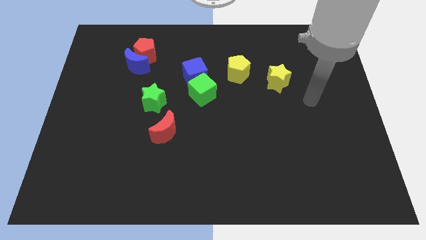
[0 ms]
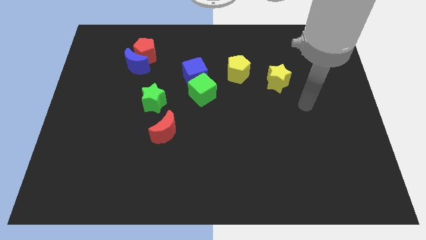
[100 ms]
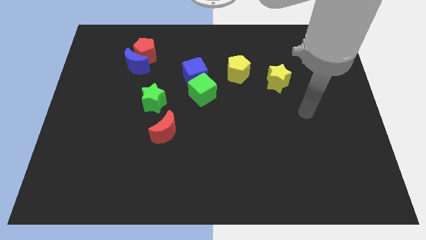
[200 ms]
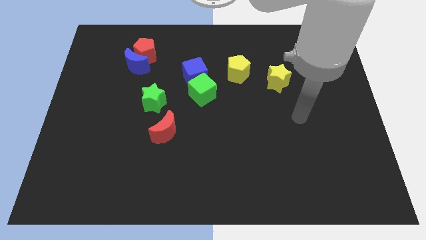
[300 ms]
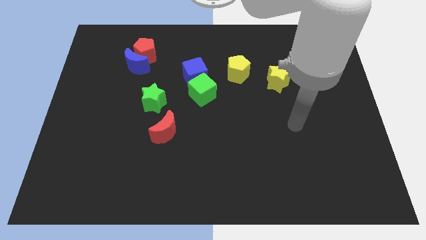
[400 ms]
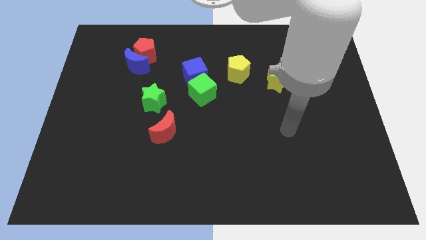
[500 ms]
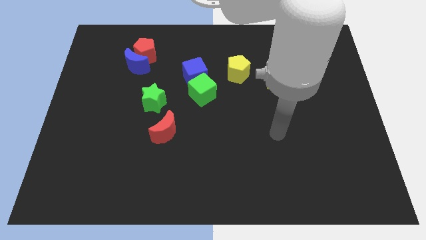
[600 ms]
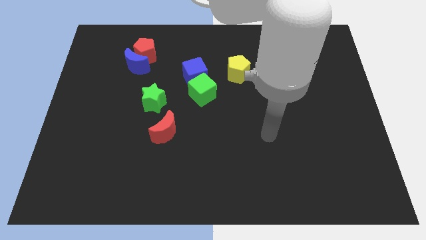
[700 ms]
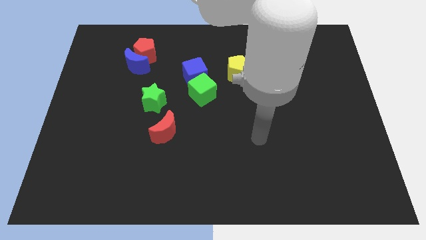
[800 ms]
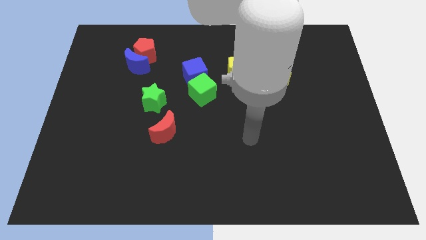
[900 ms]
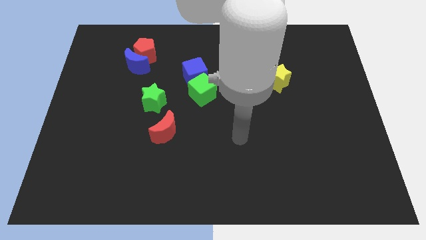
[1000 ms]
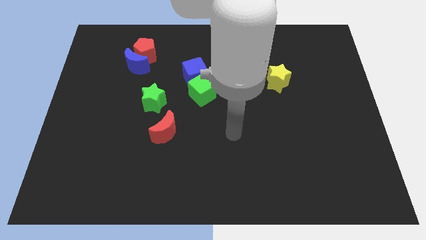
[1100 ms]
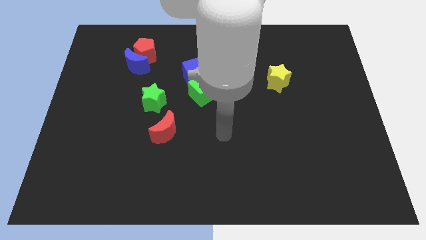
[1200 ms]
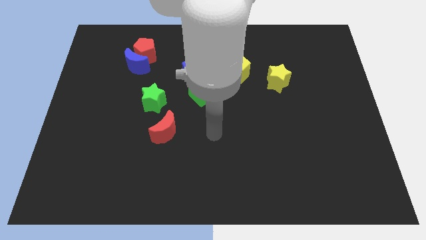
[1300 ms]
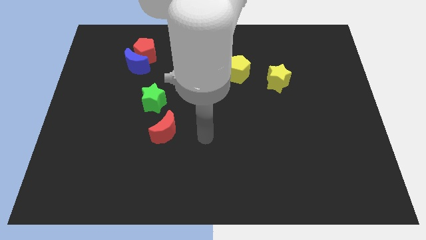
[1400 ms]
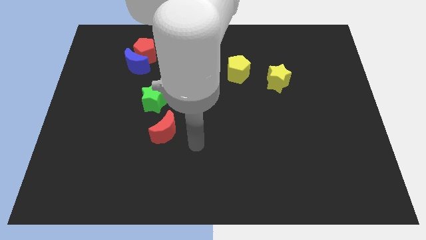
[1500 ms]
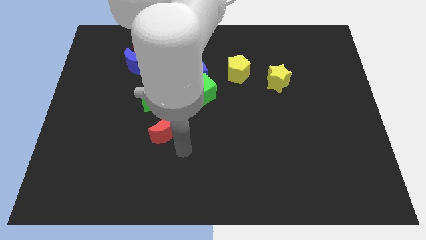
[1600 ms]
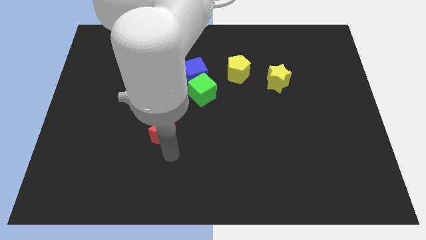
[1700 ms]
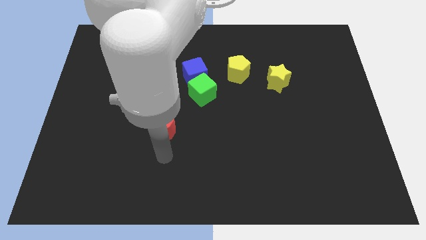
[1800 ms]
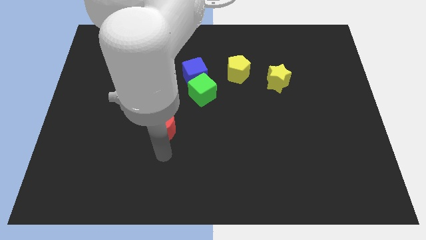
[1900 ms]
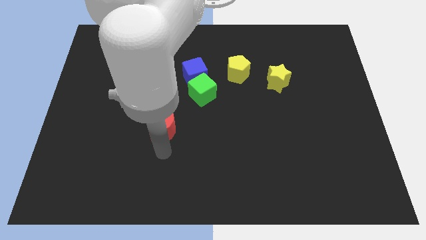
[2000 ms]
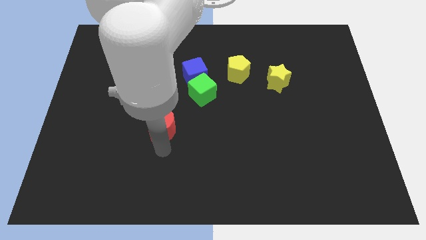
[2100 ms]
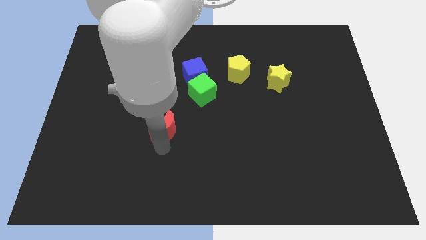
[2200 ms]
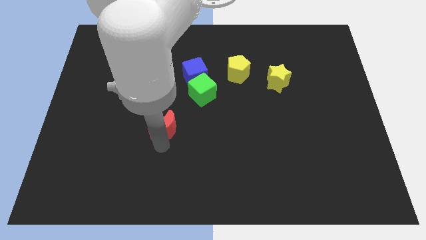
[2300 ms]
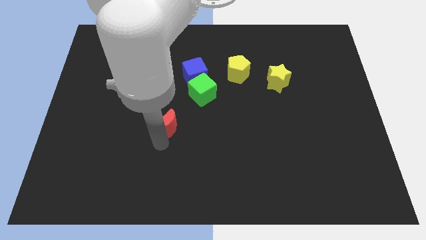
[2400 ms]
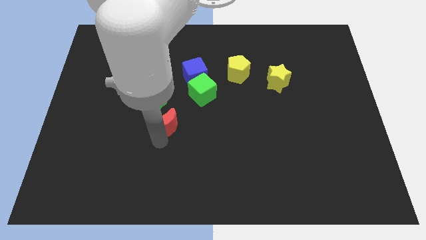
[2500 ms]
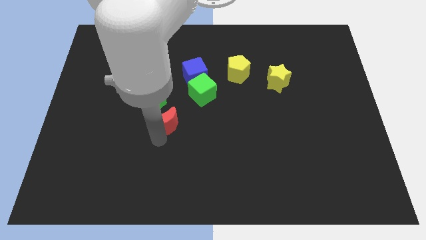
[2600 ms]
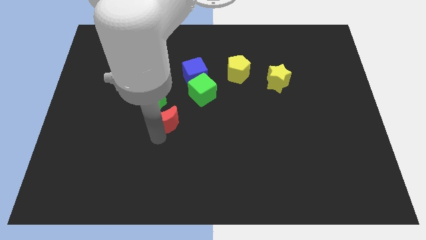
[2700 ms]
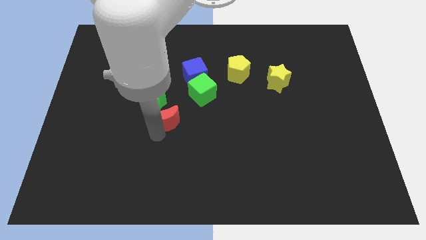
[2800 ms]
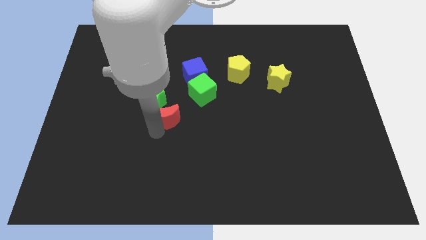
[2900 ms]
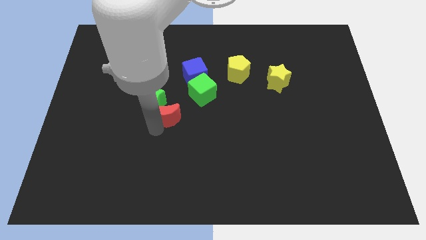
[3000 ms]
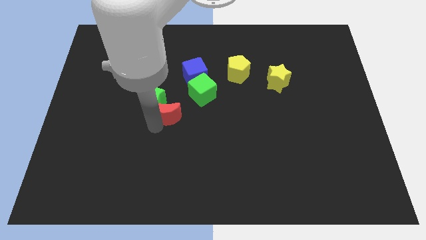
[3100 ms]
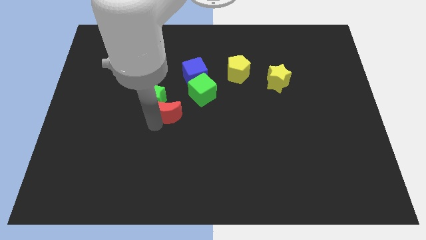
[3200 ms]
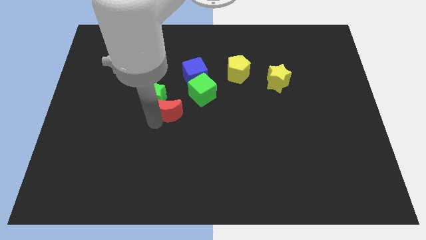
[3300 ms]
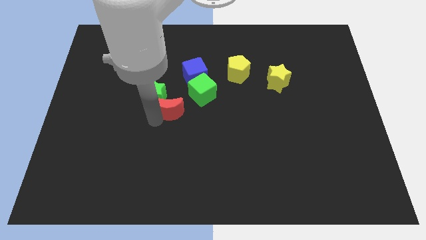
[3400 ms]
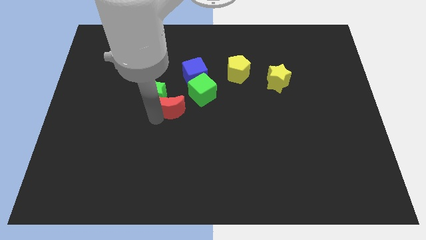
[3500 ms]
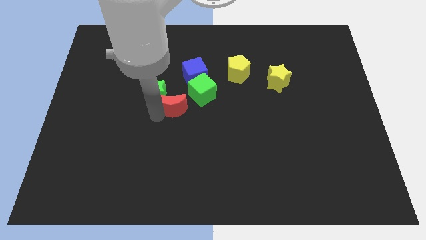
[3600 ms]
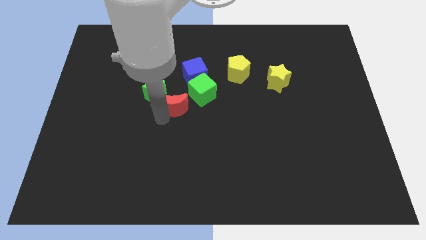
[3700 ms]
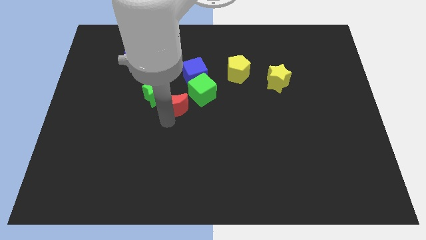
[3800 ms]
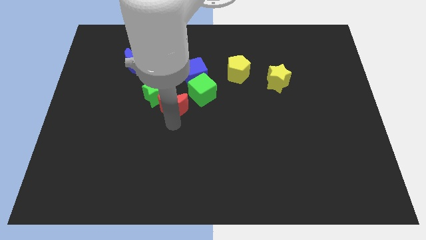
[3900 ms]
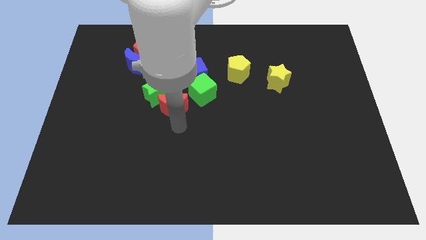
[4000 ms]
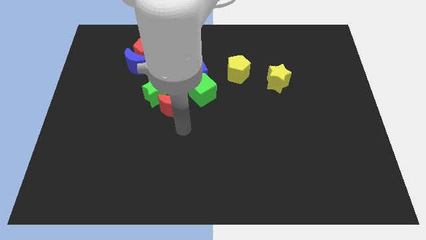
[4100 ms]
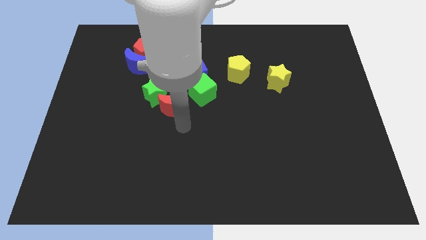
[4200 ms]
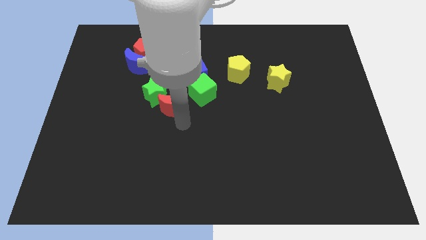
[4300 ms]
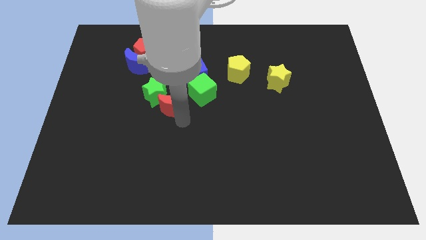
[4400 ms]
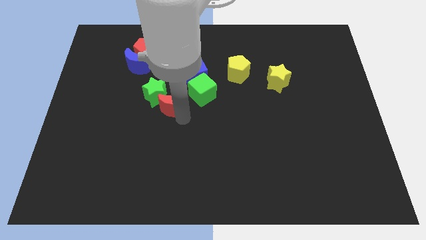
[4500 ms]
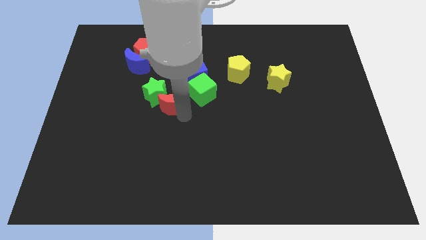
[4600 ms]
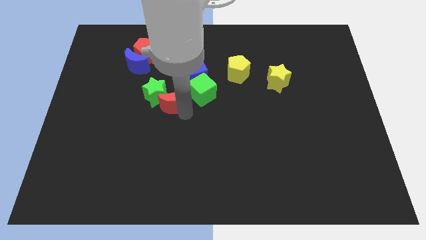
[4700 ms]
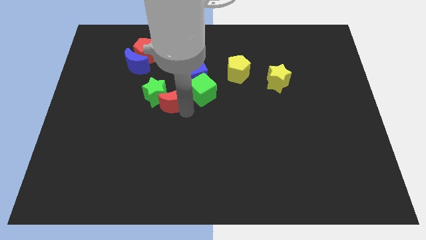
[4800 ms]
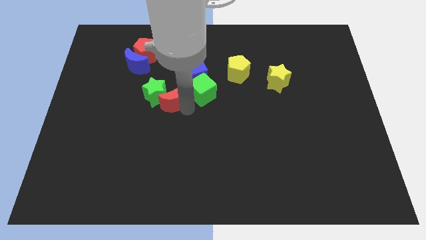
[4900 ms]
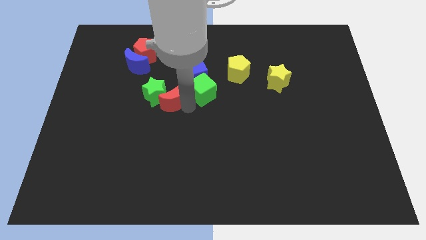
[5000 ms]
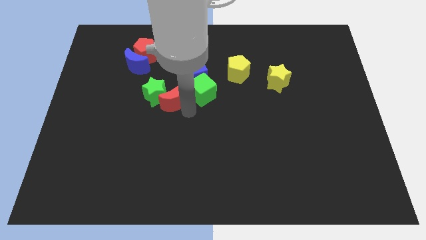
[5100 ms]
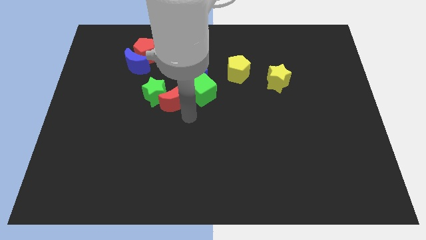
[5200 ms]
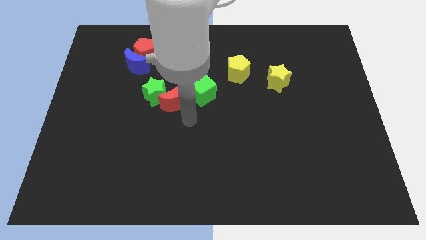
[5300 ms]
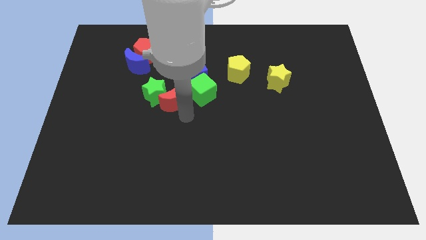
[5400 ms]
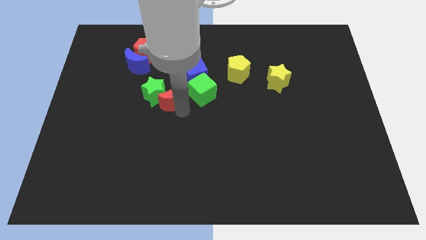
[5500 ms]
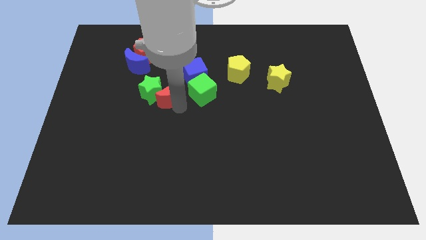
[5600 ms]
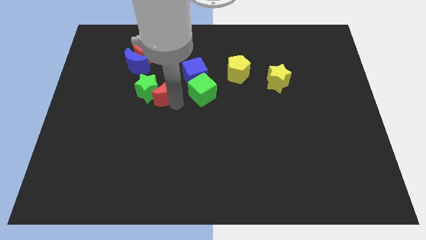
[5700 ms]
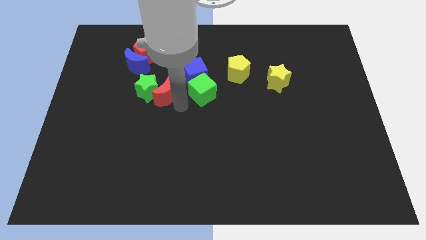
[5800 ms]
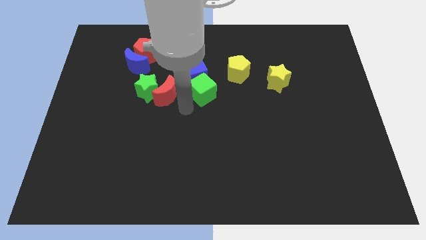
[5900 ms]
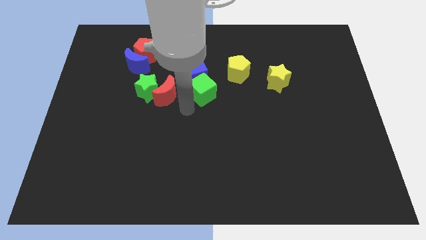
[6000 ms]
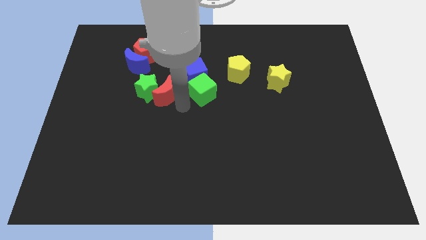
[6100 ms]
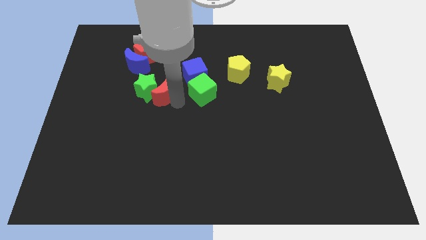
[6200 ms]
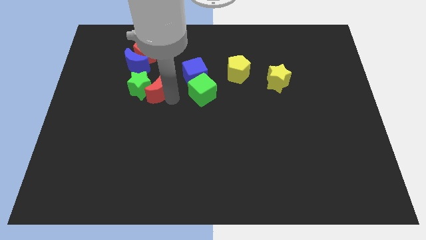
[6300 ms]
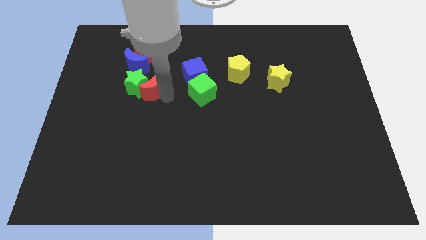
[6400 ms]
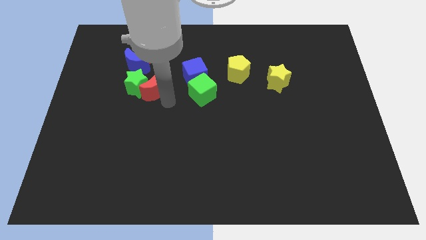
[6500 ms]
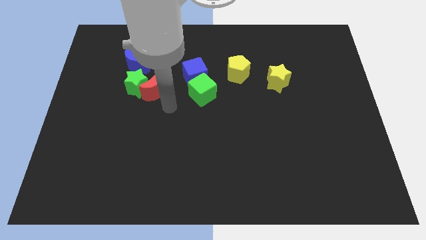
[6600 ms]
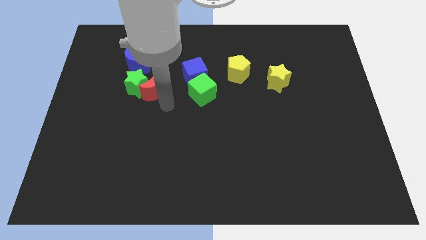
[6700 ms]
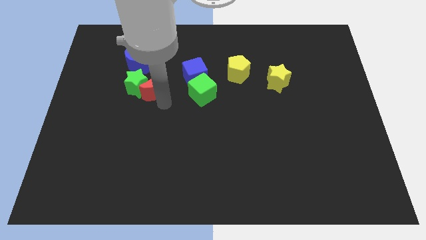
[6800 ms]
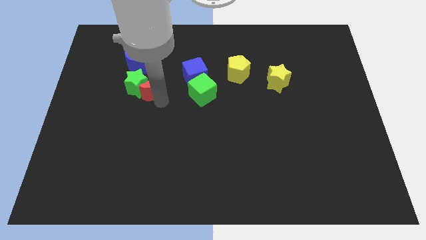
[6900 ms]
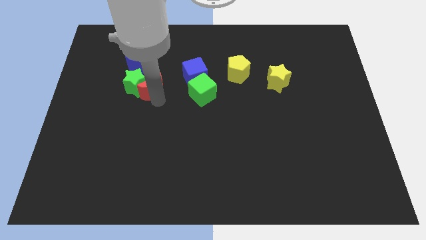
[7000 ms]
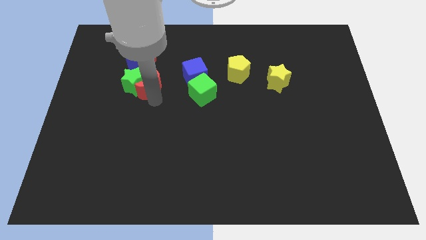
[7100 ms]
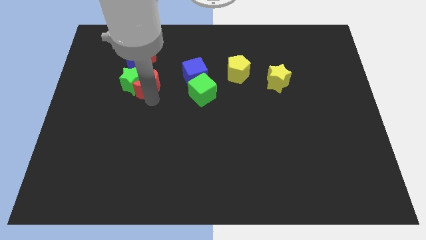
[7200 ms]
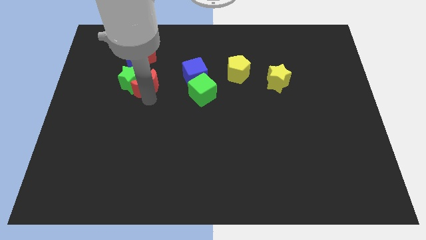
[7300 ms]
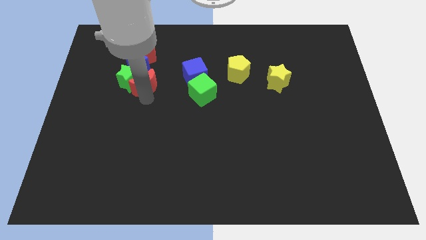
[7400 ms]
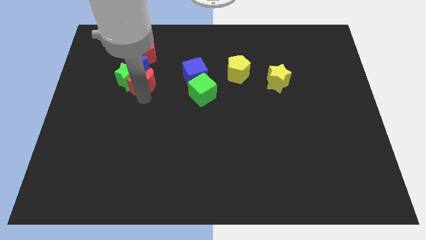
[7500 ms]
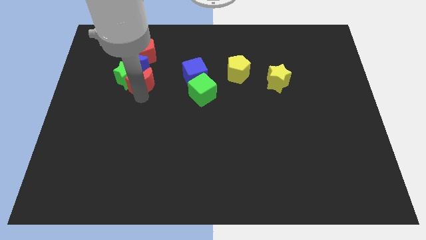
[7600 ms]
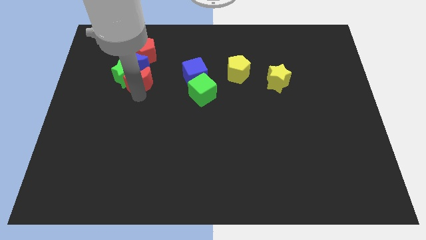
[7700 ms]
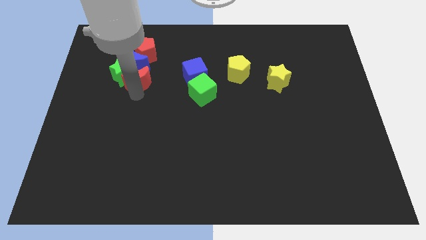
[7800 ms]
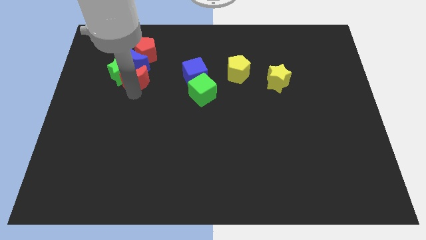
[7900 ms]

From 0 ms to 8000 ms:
move the red moon to the blue moon
